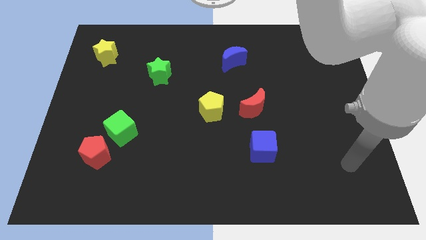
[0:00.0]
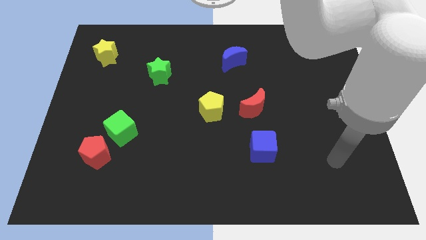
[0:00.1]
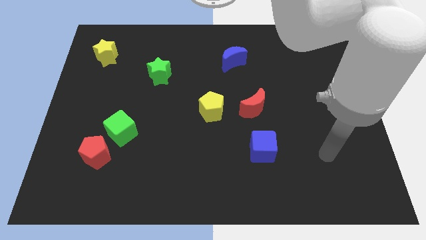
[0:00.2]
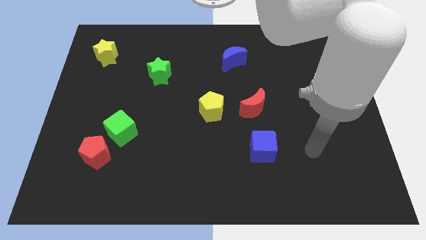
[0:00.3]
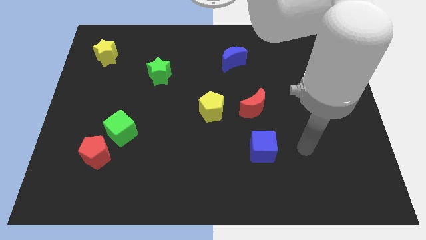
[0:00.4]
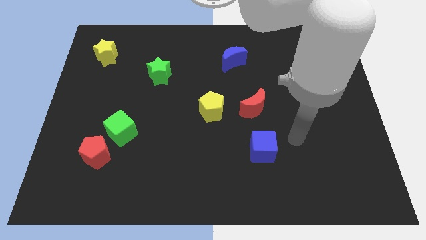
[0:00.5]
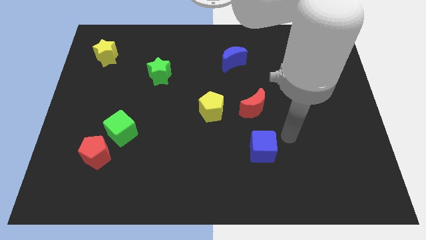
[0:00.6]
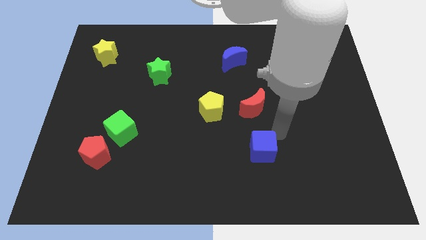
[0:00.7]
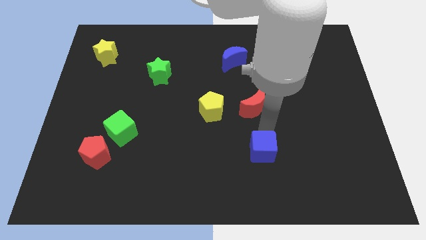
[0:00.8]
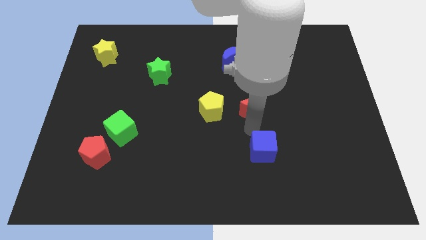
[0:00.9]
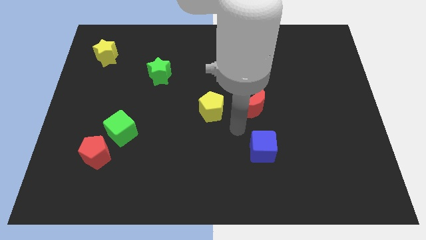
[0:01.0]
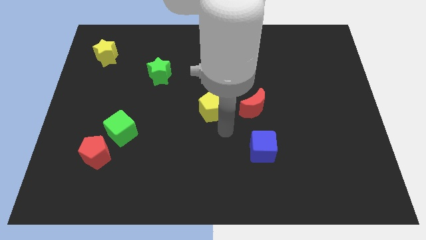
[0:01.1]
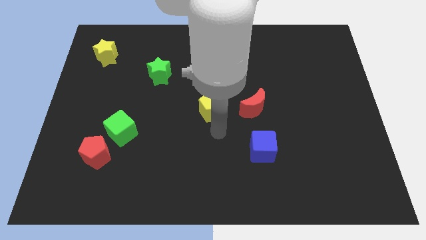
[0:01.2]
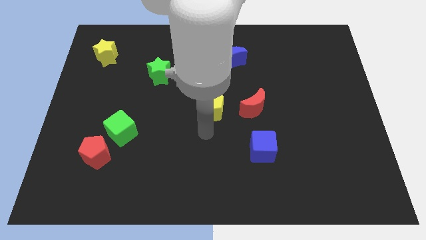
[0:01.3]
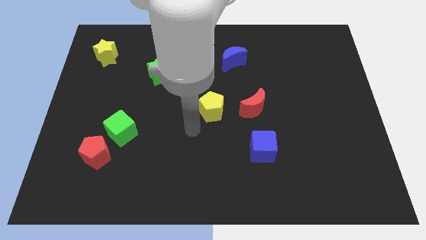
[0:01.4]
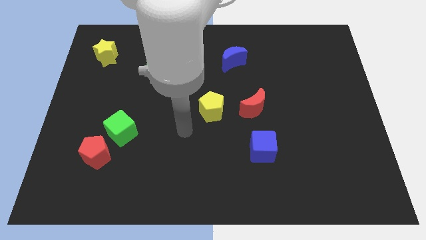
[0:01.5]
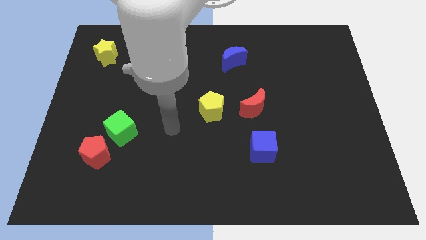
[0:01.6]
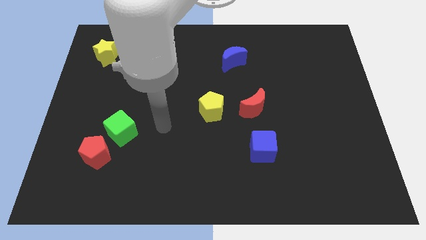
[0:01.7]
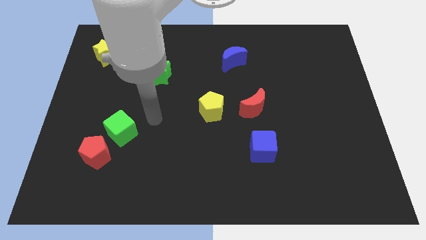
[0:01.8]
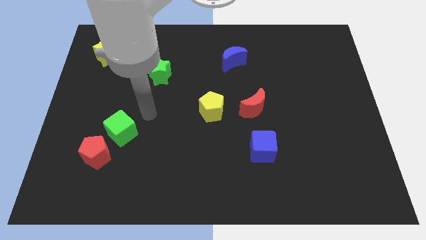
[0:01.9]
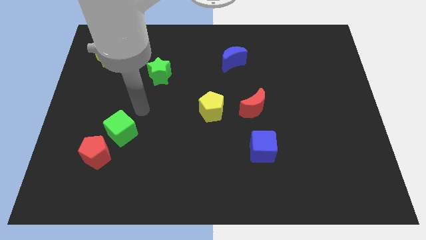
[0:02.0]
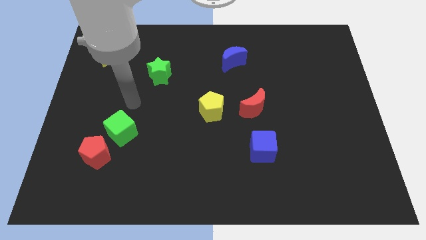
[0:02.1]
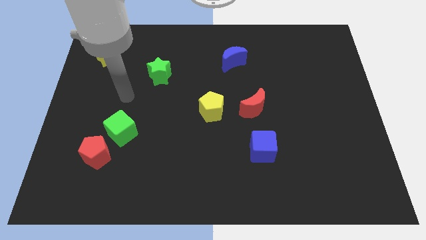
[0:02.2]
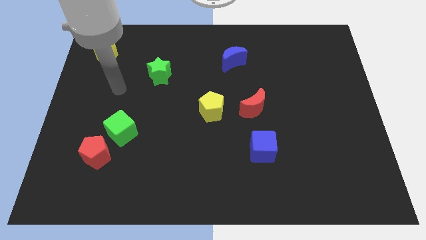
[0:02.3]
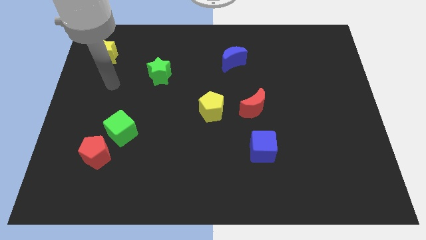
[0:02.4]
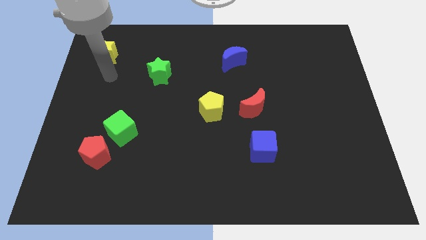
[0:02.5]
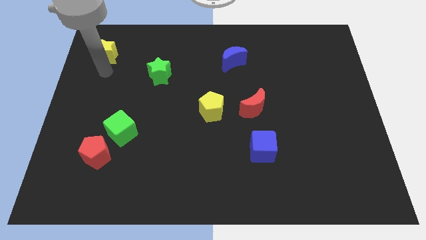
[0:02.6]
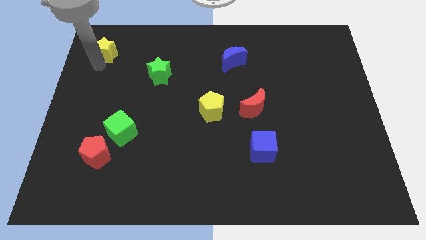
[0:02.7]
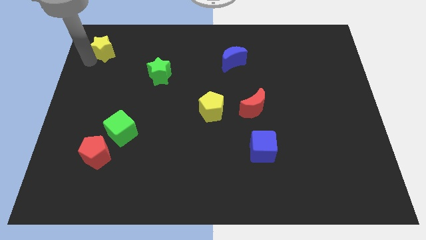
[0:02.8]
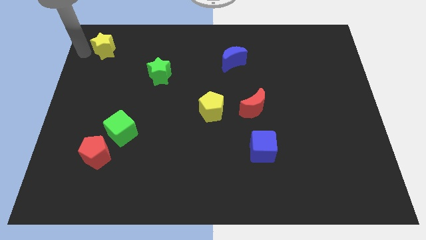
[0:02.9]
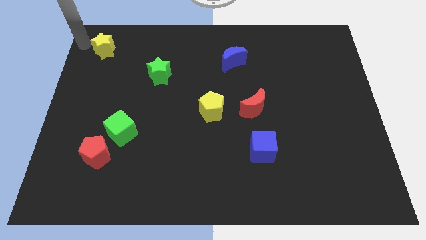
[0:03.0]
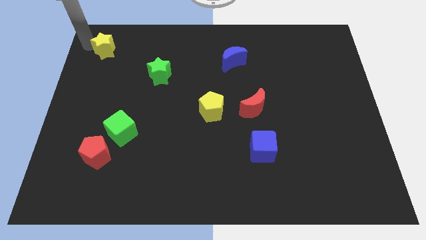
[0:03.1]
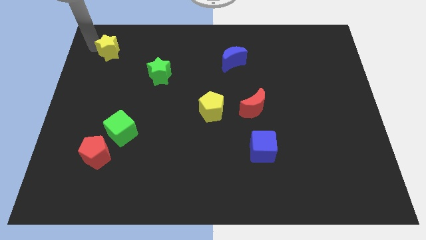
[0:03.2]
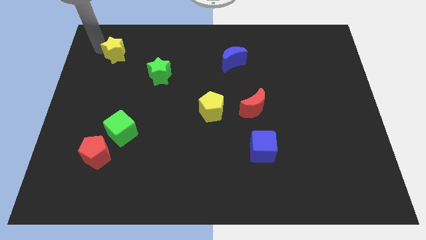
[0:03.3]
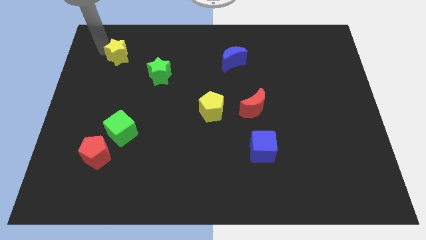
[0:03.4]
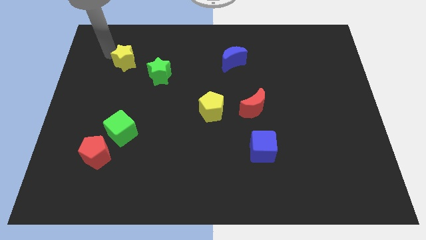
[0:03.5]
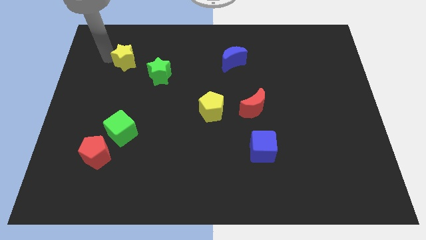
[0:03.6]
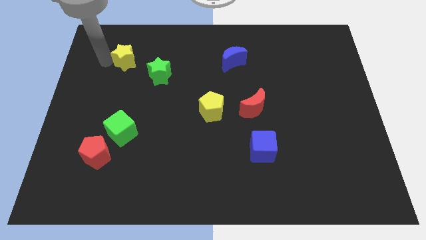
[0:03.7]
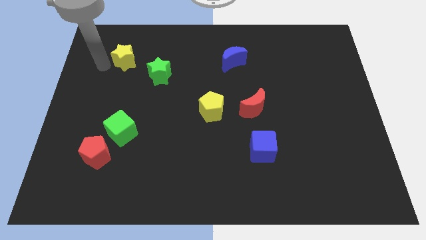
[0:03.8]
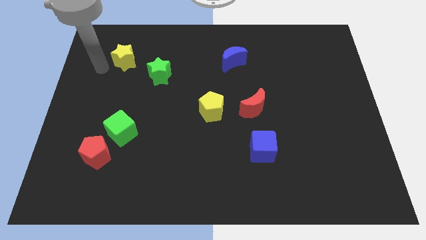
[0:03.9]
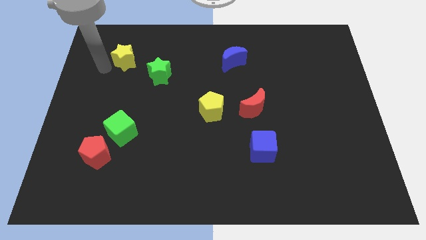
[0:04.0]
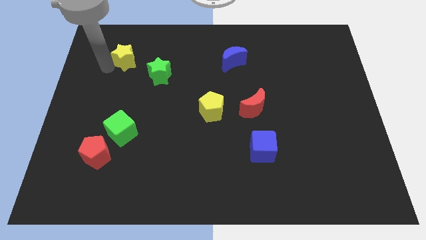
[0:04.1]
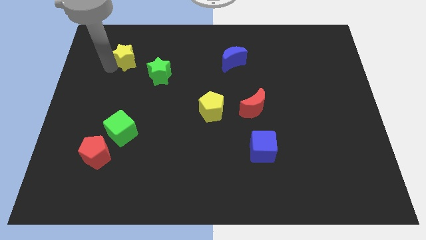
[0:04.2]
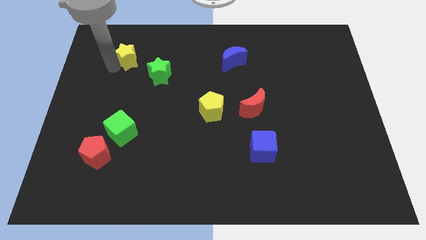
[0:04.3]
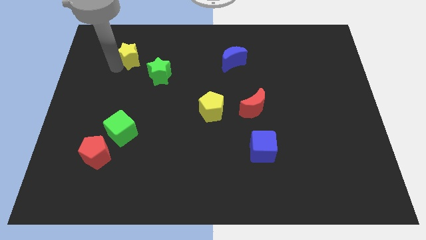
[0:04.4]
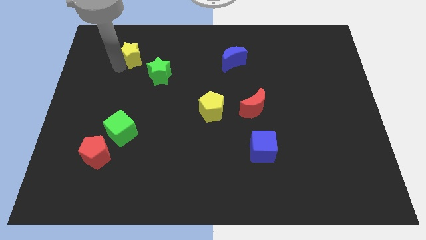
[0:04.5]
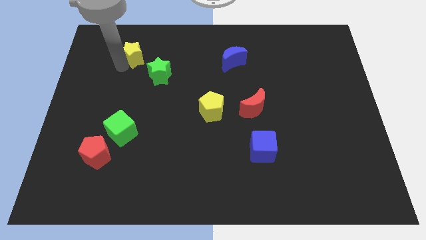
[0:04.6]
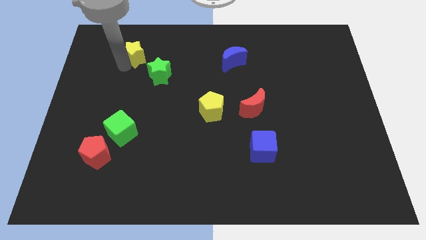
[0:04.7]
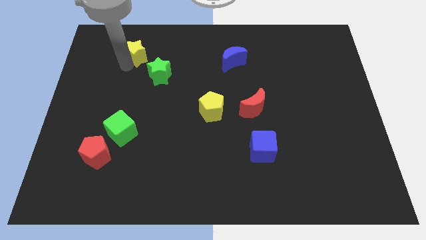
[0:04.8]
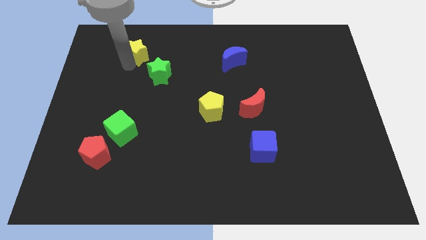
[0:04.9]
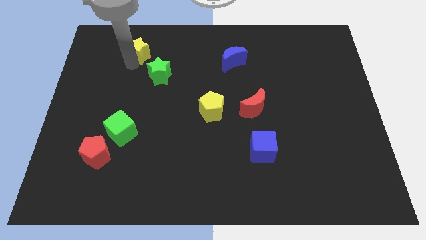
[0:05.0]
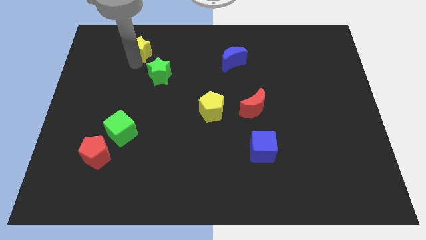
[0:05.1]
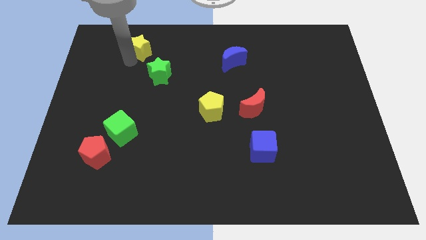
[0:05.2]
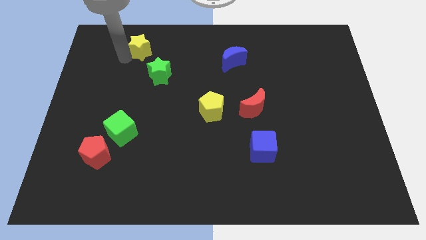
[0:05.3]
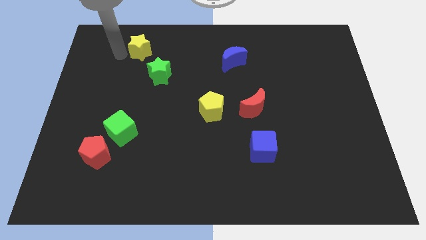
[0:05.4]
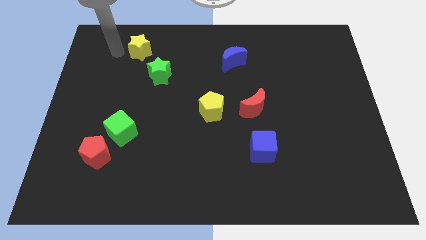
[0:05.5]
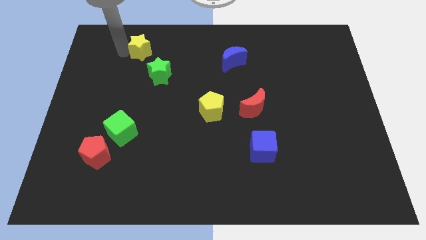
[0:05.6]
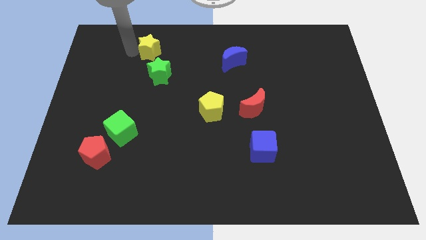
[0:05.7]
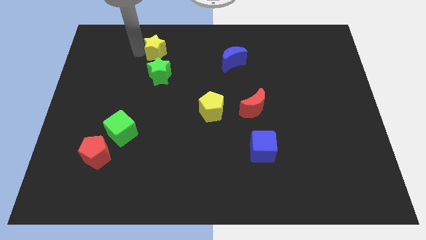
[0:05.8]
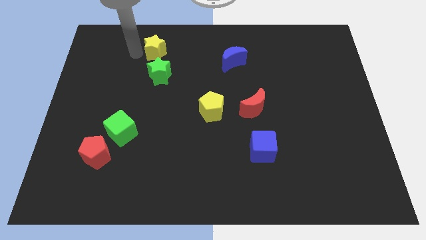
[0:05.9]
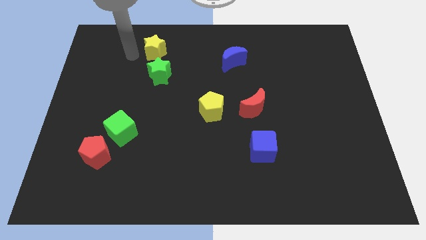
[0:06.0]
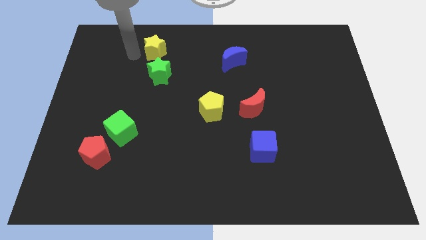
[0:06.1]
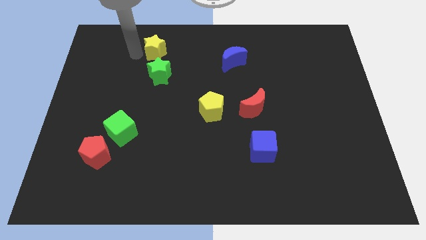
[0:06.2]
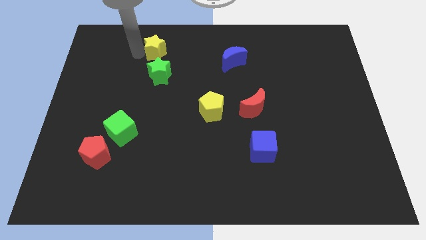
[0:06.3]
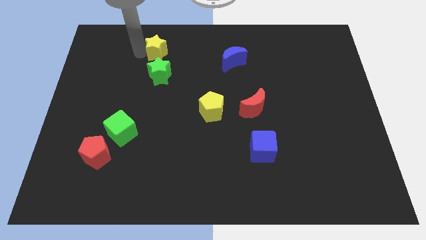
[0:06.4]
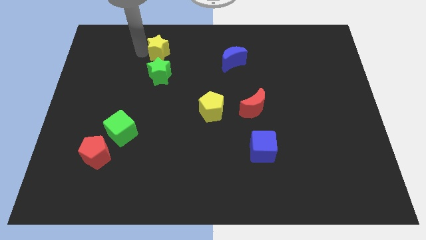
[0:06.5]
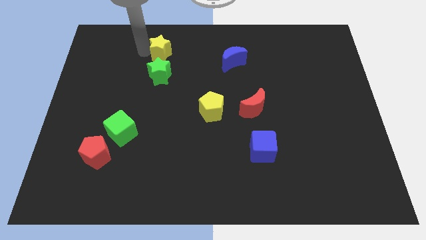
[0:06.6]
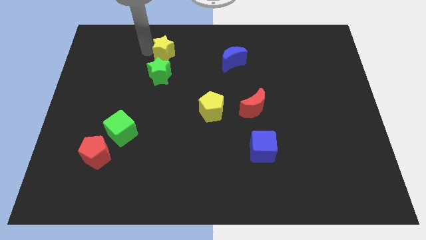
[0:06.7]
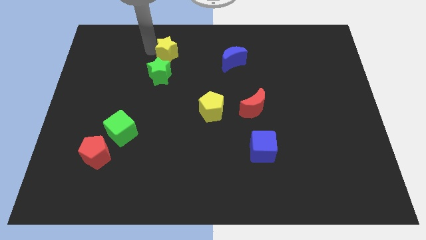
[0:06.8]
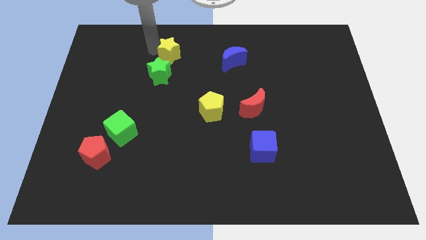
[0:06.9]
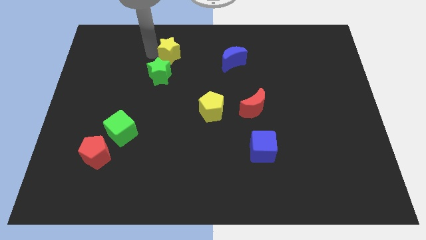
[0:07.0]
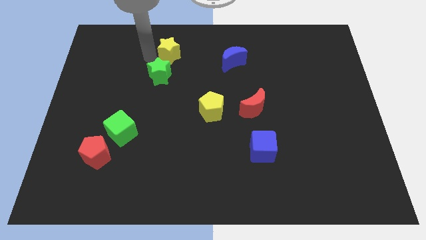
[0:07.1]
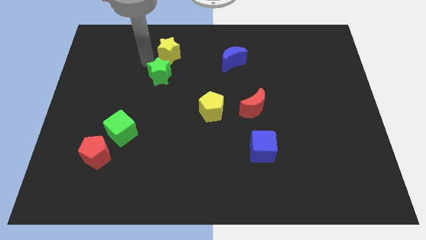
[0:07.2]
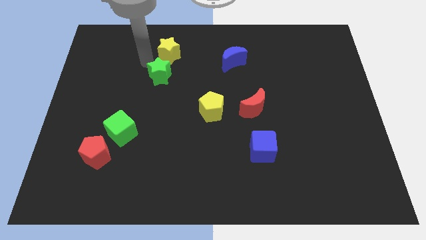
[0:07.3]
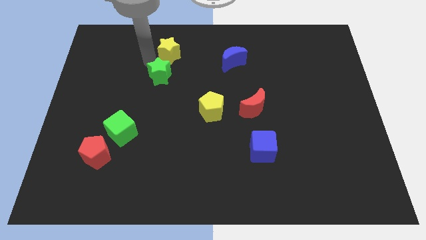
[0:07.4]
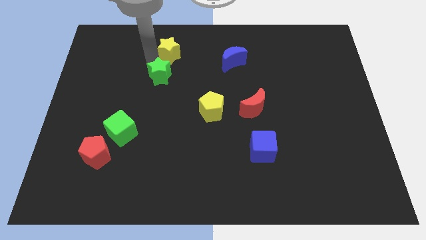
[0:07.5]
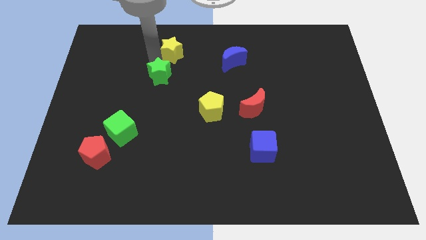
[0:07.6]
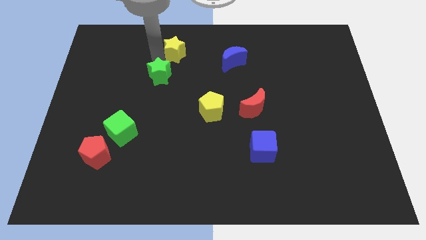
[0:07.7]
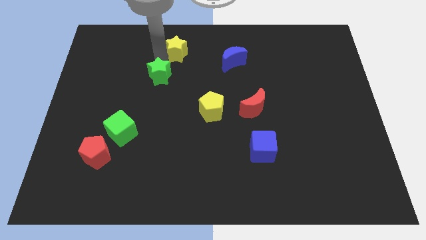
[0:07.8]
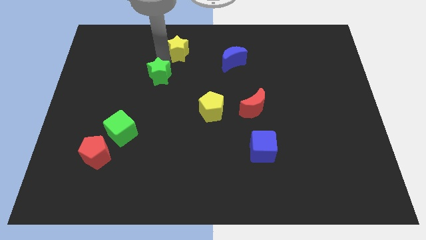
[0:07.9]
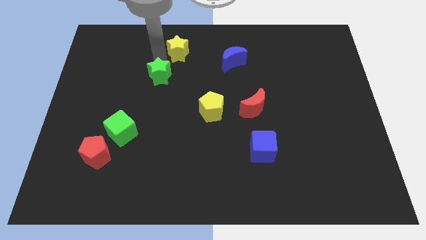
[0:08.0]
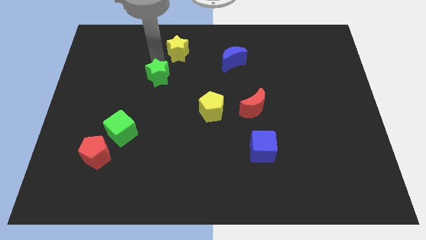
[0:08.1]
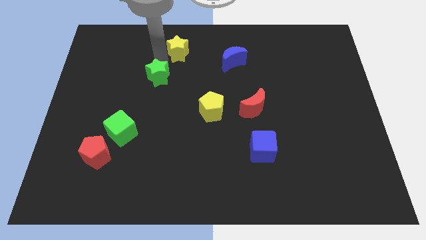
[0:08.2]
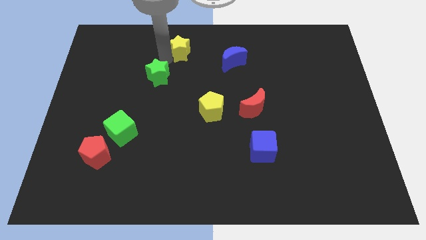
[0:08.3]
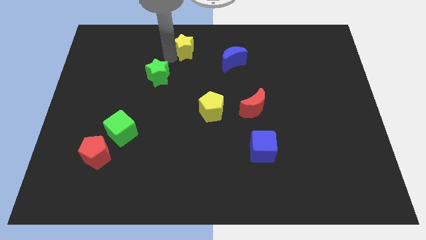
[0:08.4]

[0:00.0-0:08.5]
put the yellow star to the top side
